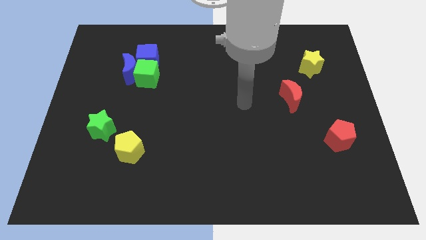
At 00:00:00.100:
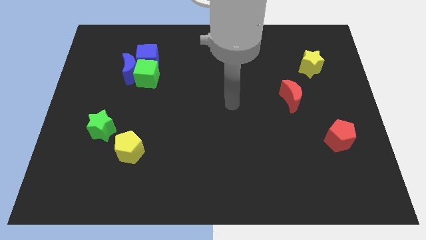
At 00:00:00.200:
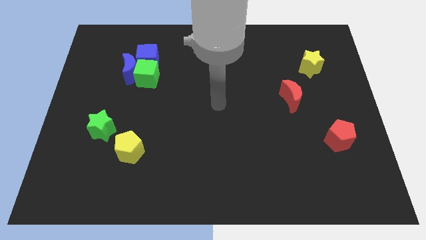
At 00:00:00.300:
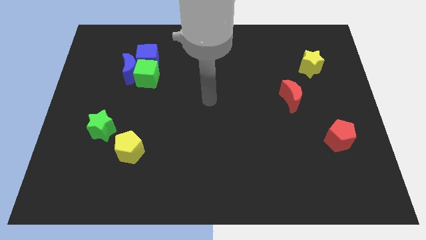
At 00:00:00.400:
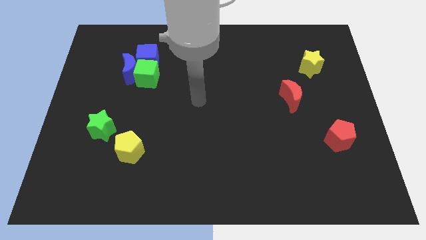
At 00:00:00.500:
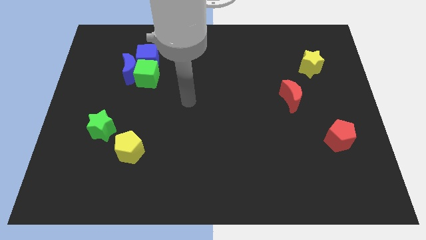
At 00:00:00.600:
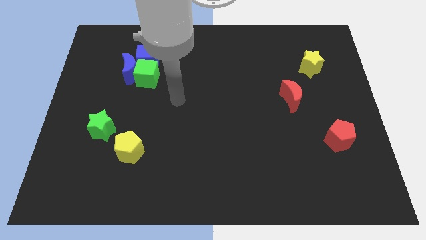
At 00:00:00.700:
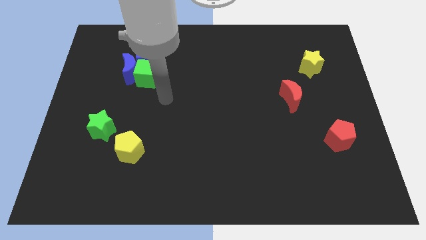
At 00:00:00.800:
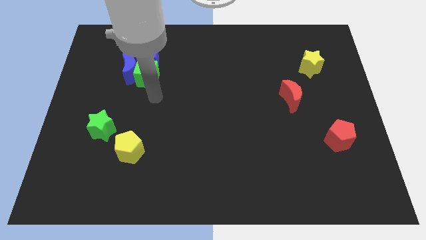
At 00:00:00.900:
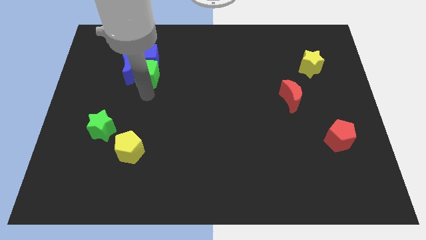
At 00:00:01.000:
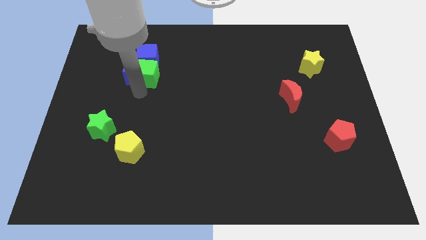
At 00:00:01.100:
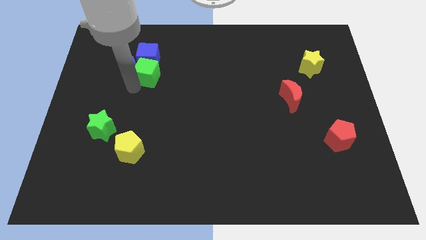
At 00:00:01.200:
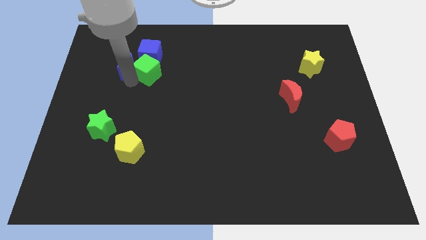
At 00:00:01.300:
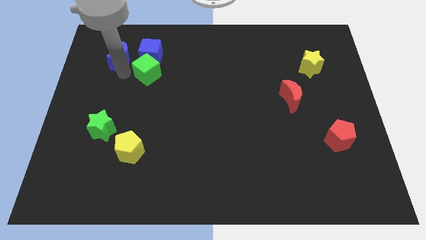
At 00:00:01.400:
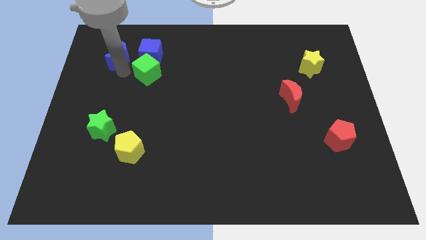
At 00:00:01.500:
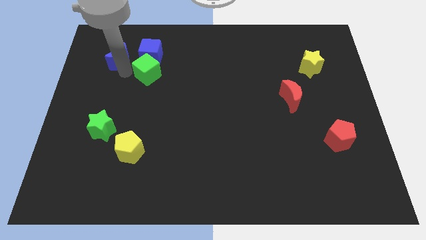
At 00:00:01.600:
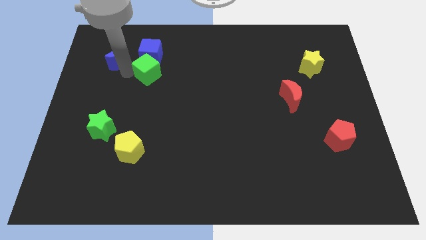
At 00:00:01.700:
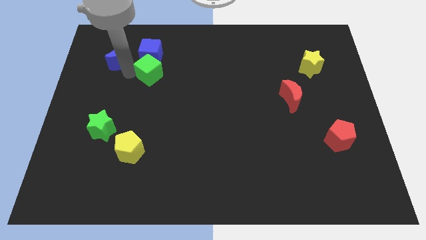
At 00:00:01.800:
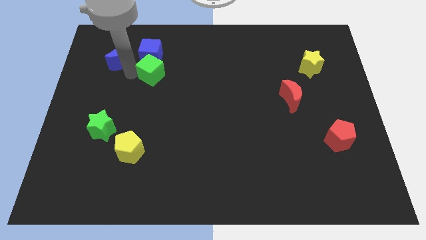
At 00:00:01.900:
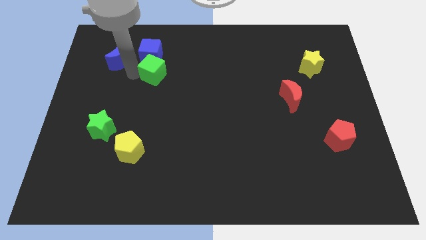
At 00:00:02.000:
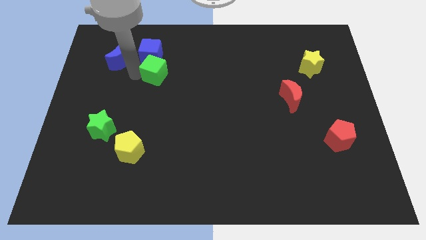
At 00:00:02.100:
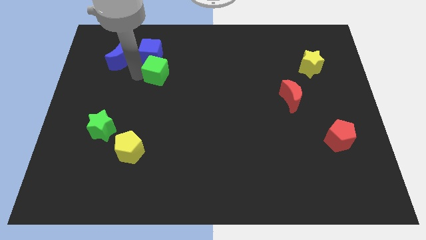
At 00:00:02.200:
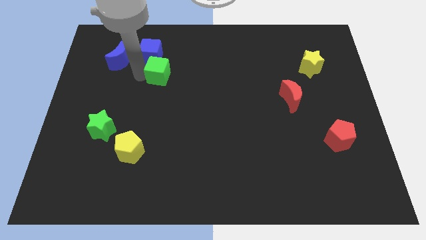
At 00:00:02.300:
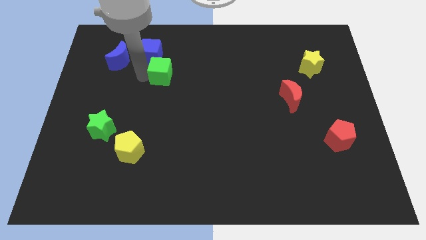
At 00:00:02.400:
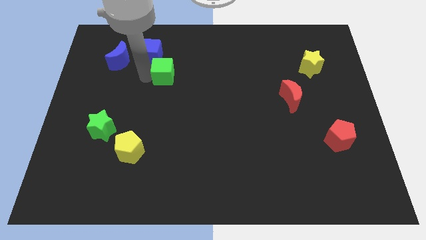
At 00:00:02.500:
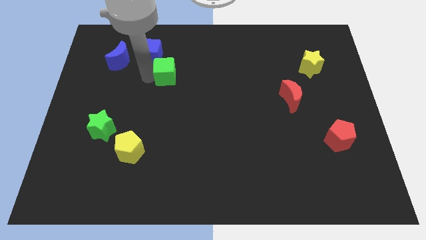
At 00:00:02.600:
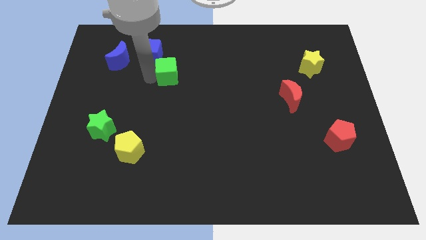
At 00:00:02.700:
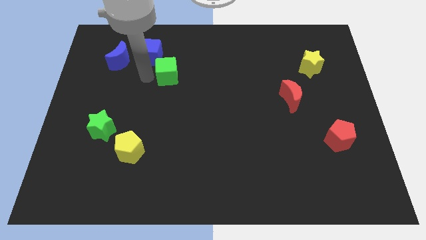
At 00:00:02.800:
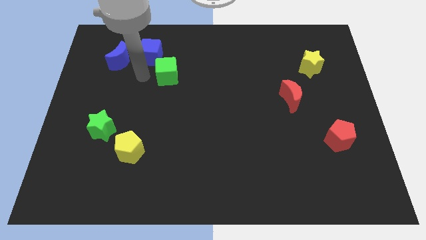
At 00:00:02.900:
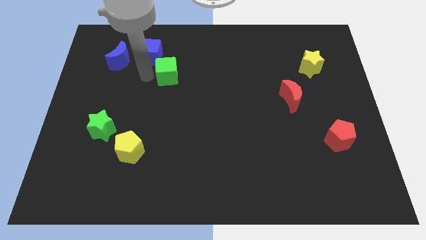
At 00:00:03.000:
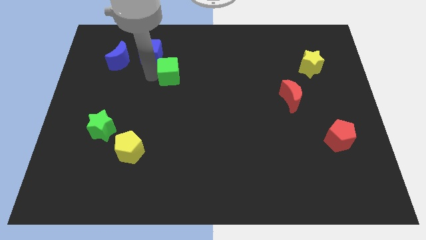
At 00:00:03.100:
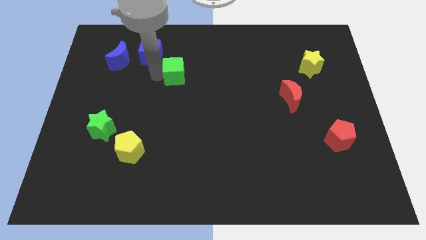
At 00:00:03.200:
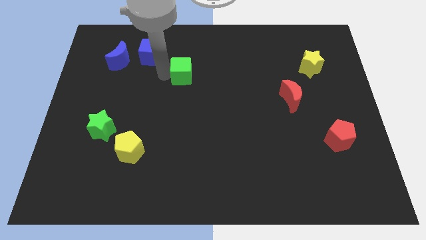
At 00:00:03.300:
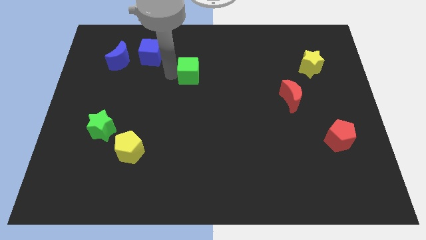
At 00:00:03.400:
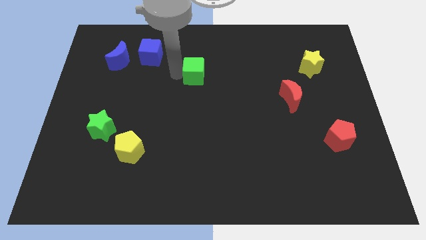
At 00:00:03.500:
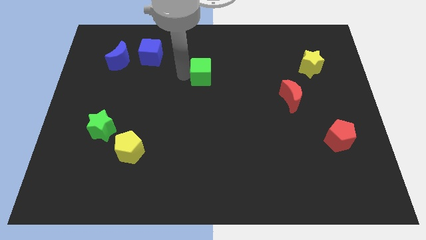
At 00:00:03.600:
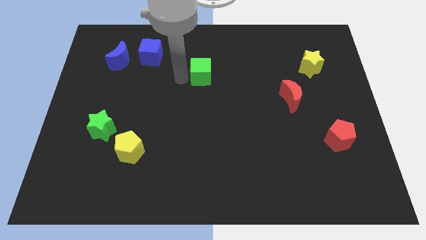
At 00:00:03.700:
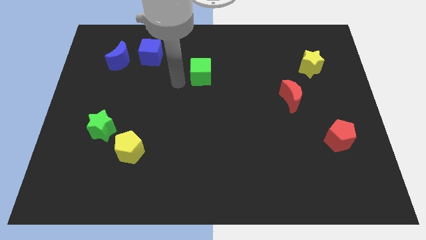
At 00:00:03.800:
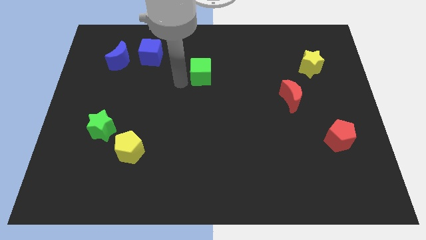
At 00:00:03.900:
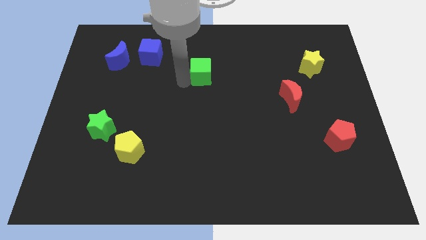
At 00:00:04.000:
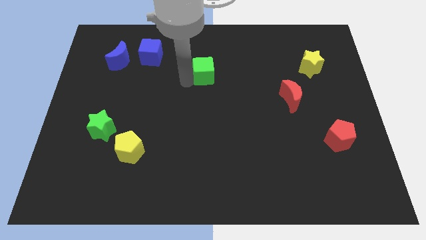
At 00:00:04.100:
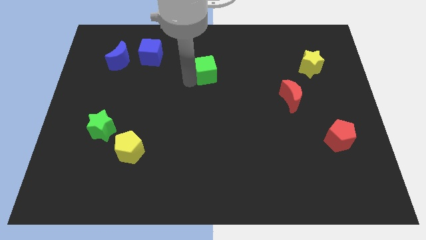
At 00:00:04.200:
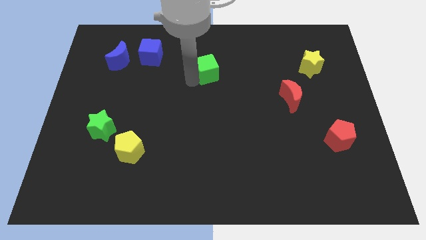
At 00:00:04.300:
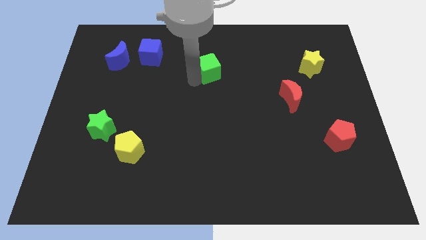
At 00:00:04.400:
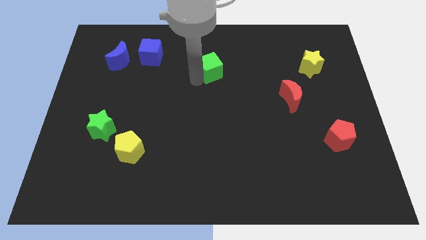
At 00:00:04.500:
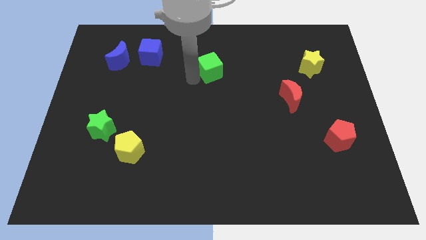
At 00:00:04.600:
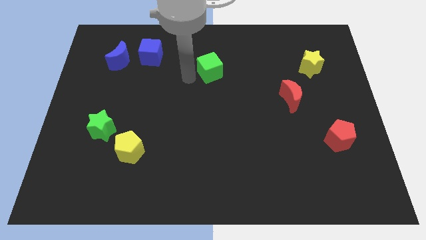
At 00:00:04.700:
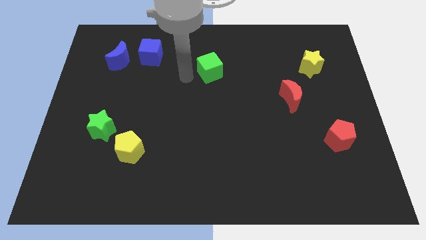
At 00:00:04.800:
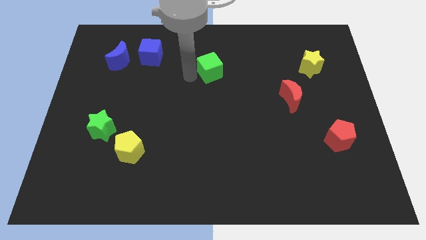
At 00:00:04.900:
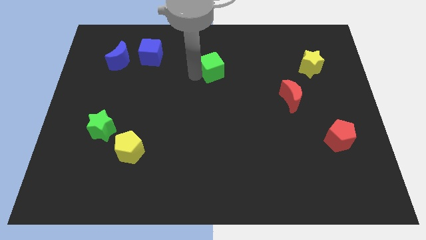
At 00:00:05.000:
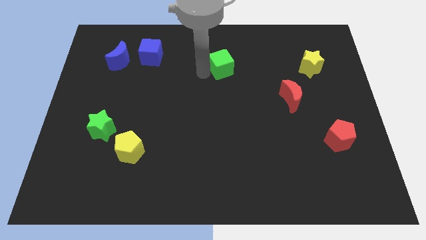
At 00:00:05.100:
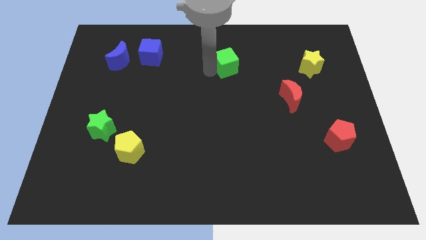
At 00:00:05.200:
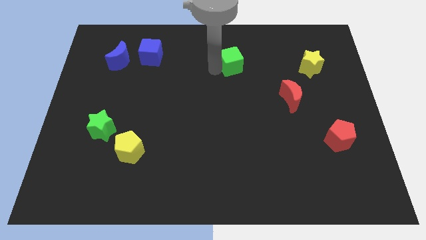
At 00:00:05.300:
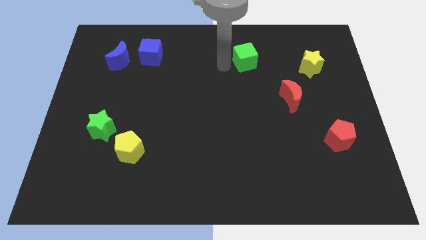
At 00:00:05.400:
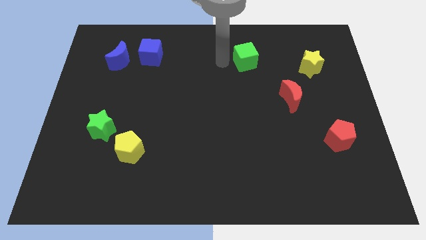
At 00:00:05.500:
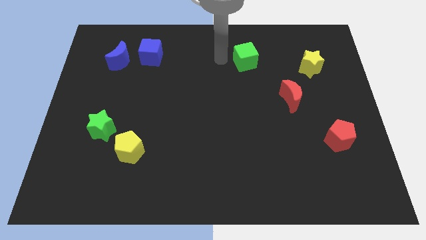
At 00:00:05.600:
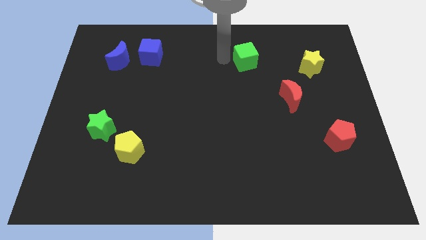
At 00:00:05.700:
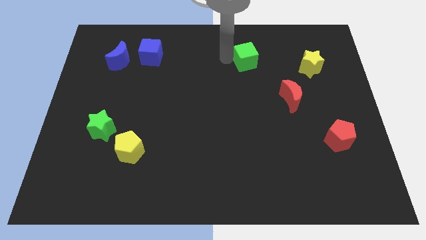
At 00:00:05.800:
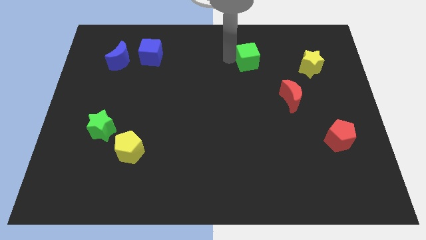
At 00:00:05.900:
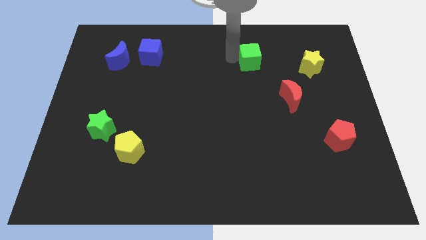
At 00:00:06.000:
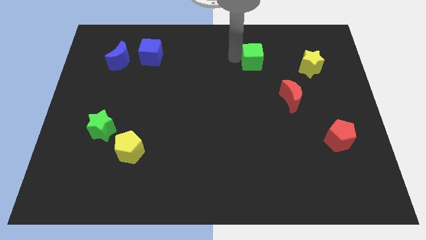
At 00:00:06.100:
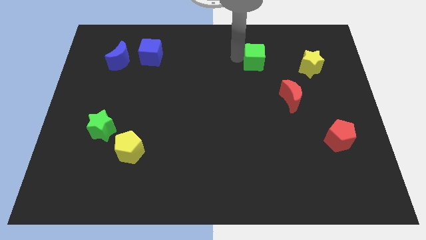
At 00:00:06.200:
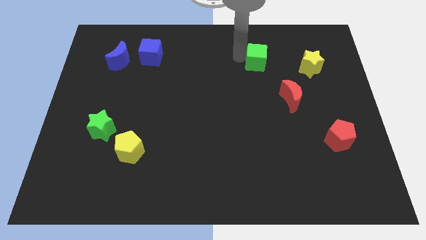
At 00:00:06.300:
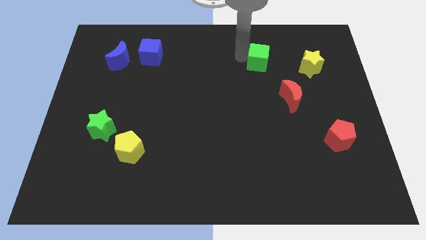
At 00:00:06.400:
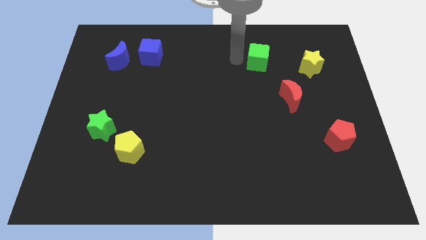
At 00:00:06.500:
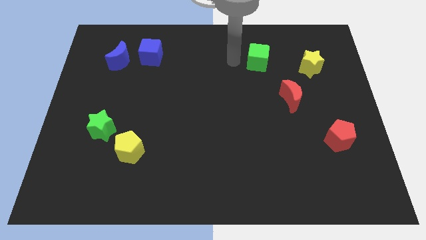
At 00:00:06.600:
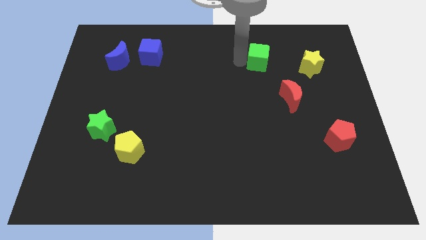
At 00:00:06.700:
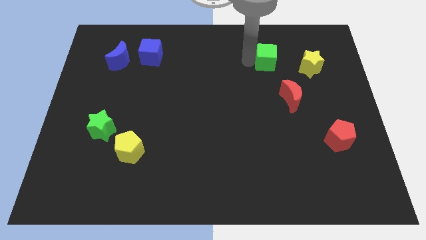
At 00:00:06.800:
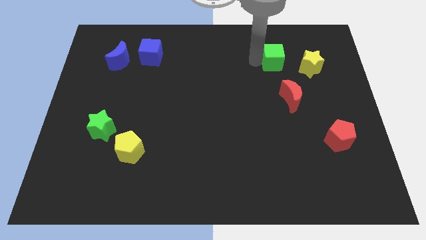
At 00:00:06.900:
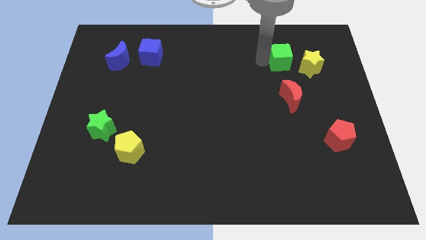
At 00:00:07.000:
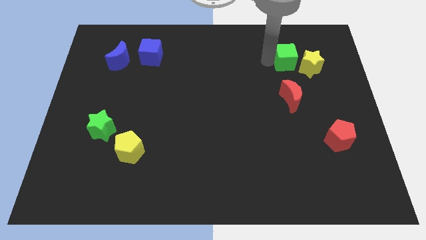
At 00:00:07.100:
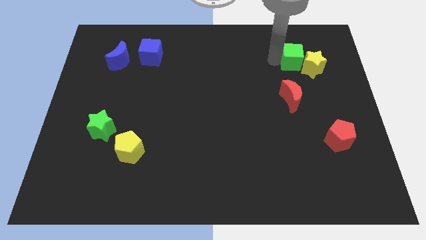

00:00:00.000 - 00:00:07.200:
put the green cube close to the yellow star
